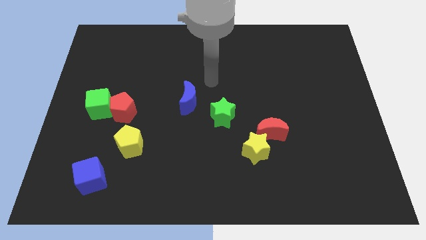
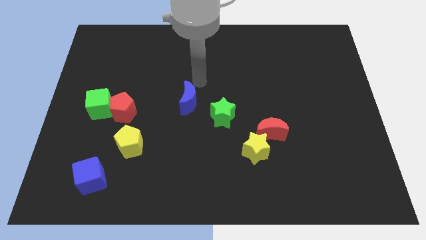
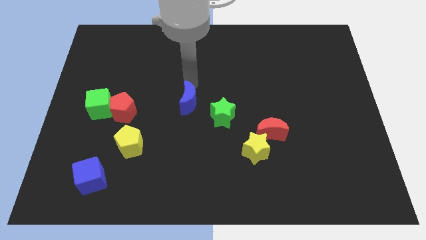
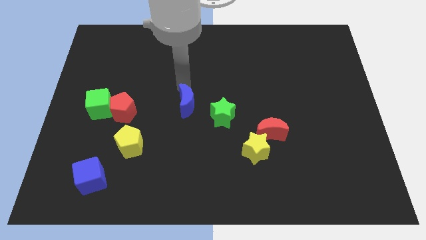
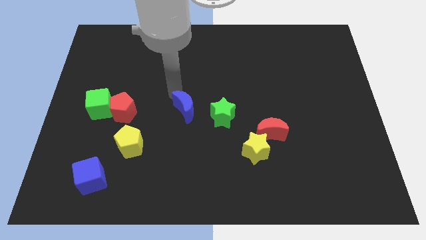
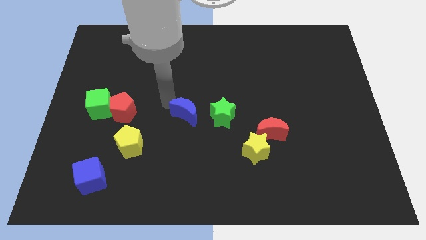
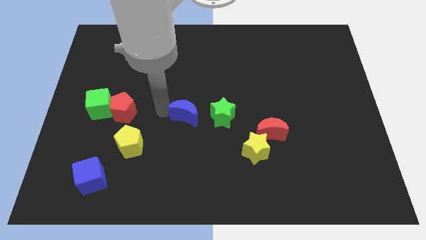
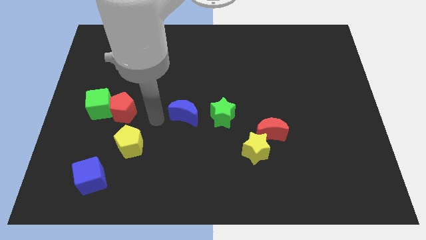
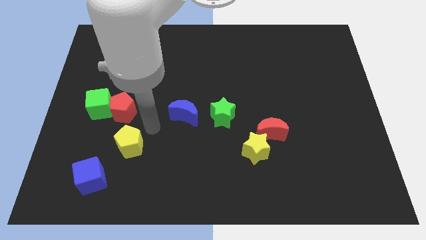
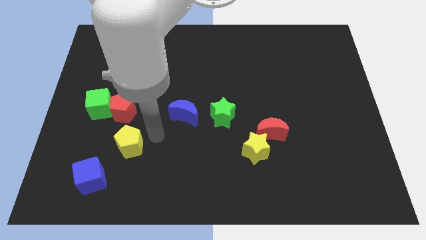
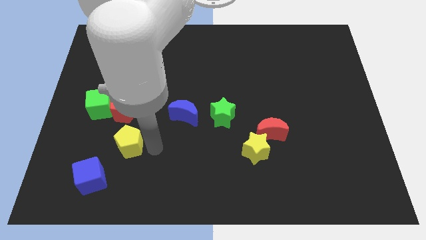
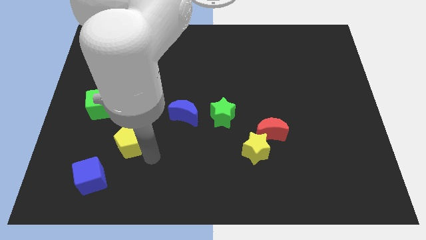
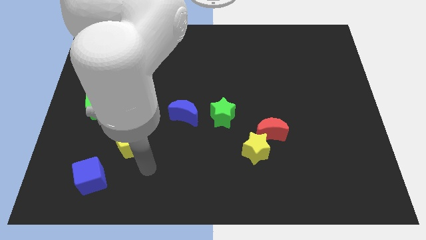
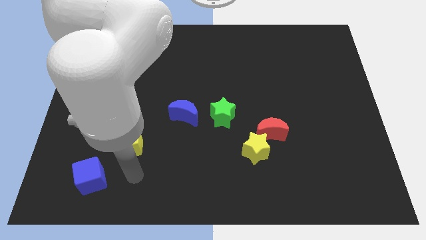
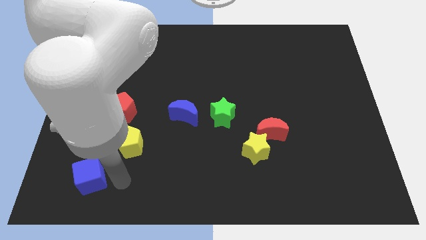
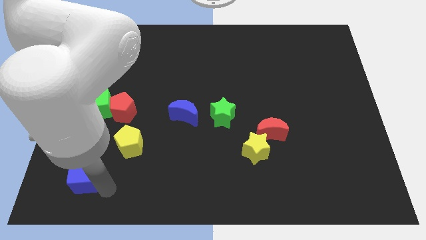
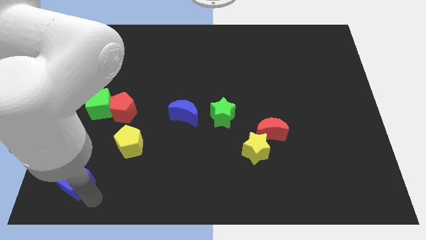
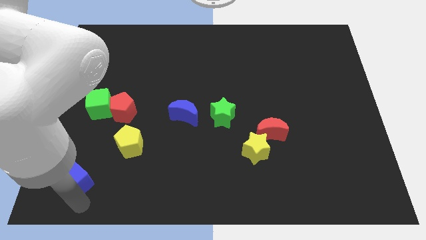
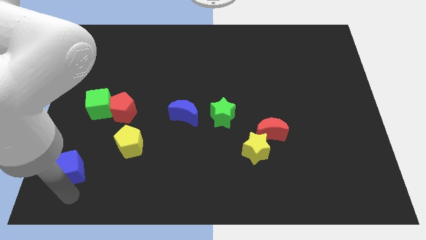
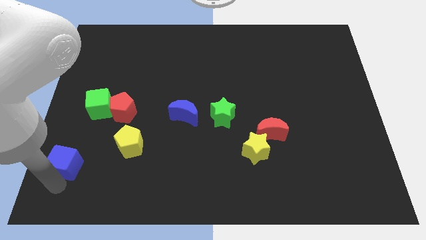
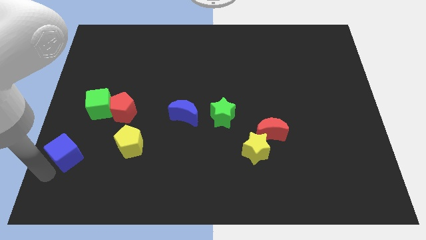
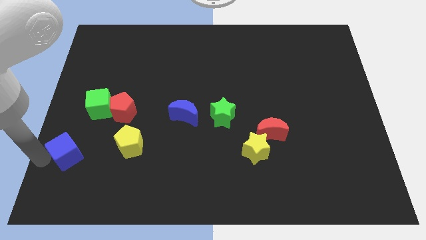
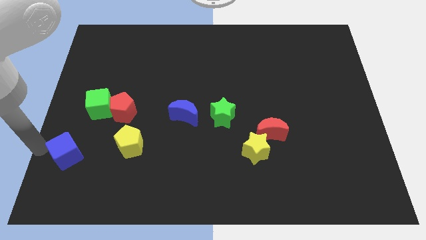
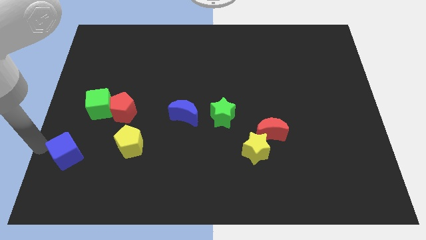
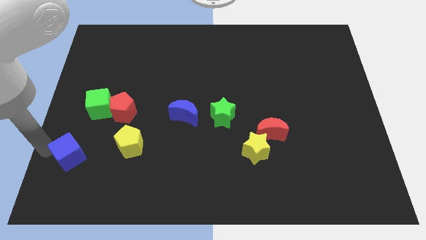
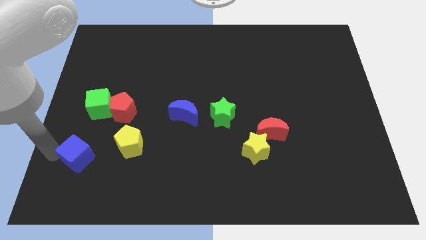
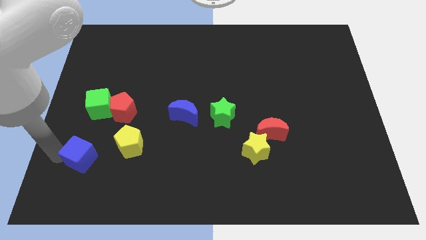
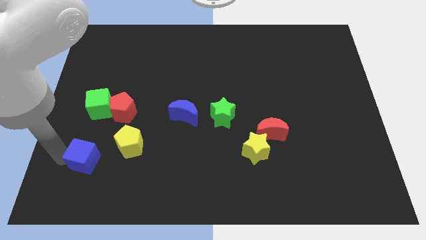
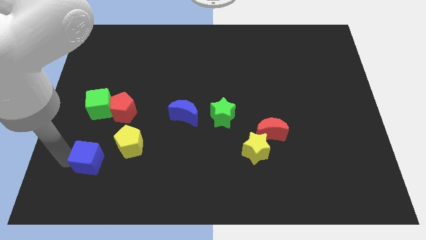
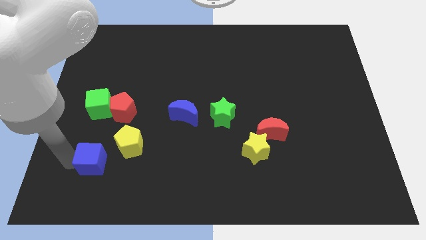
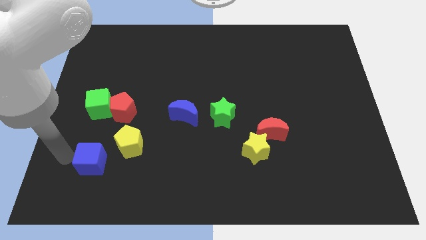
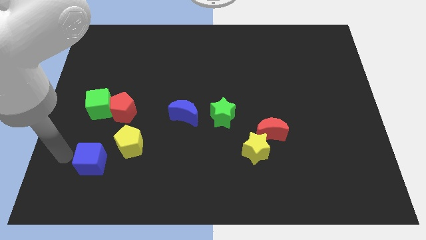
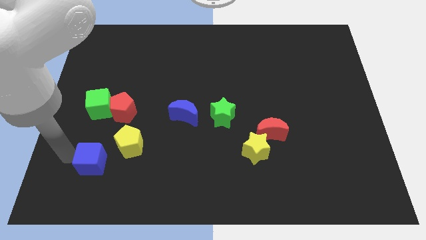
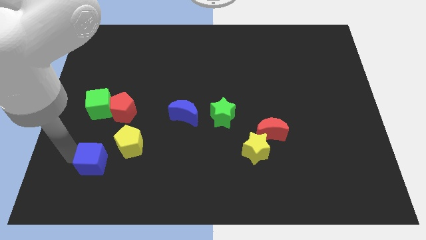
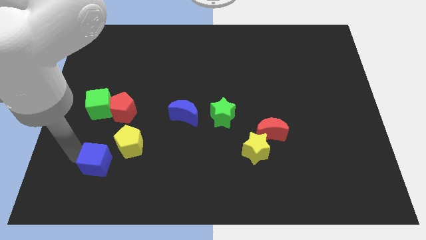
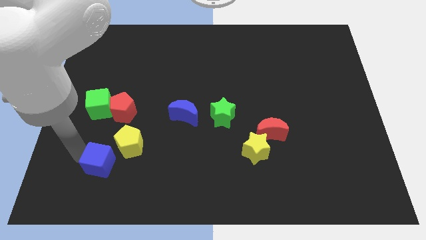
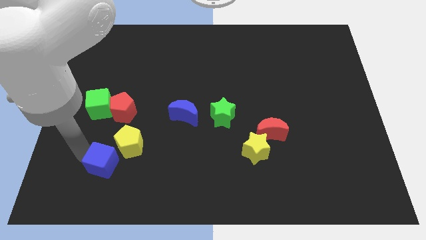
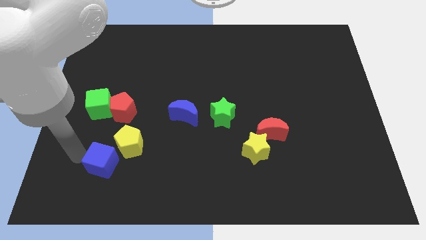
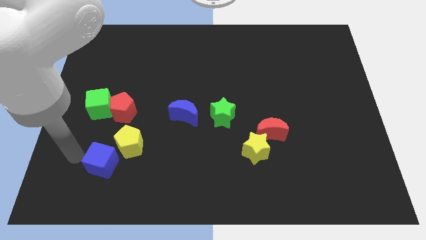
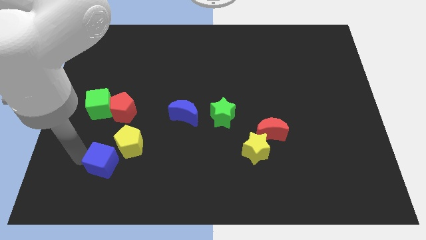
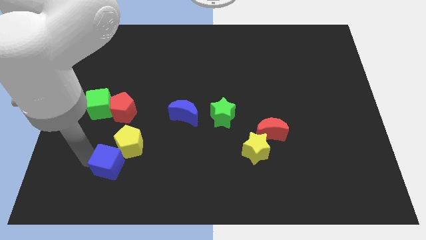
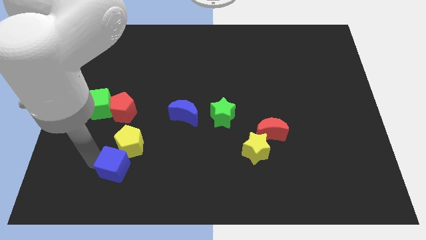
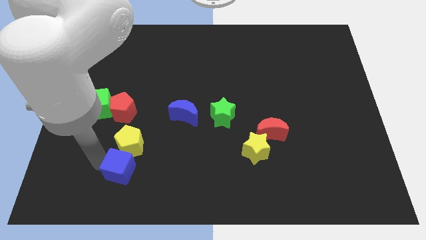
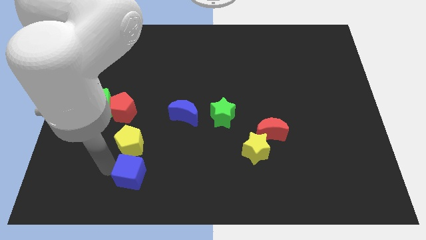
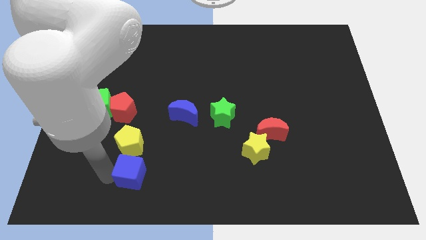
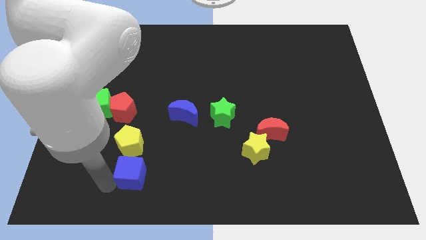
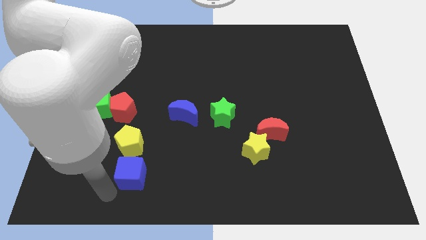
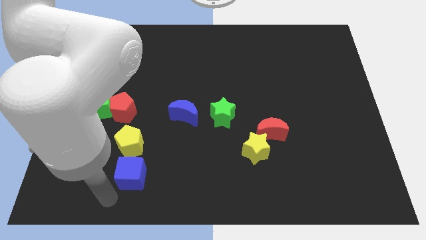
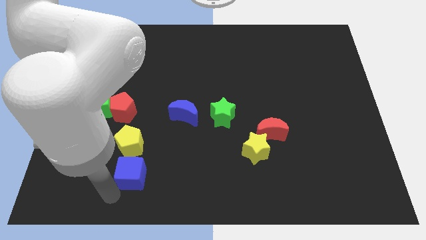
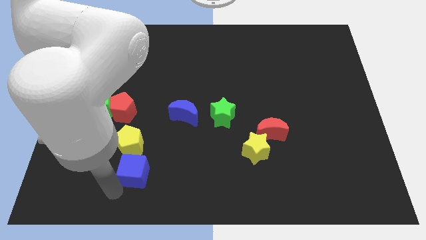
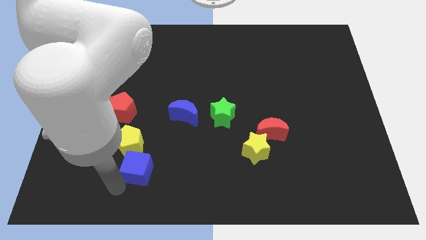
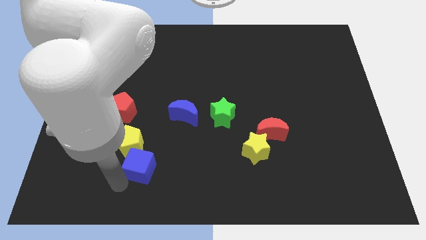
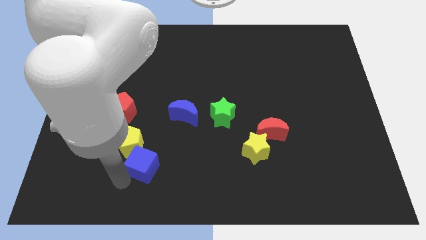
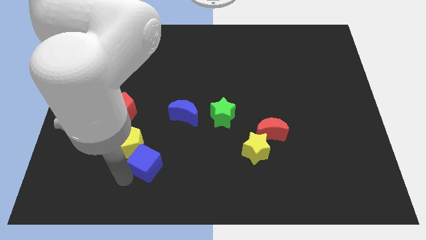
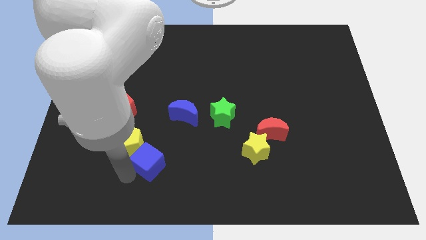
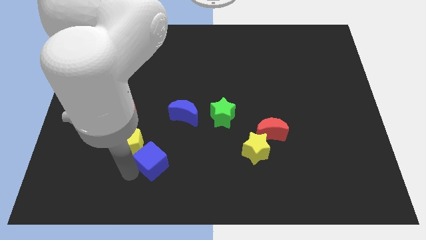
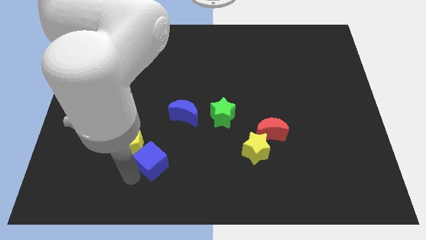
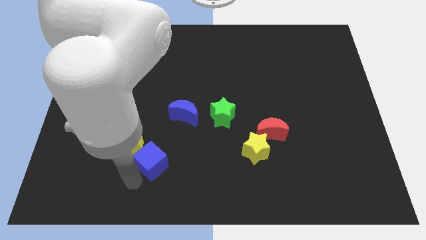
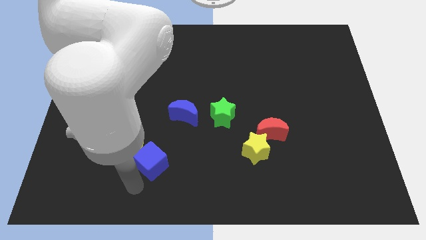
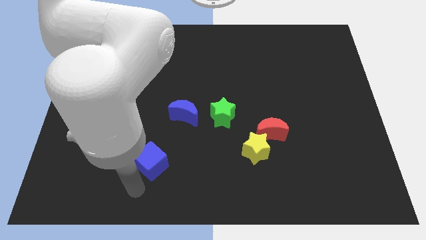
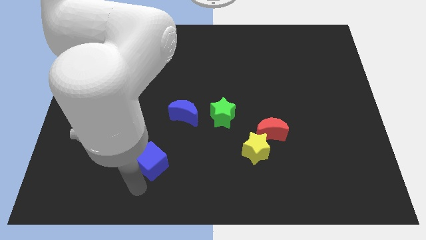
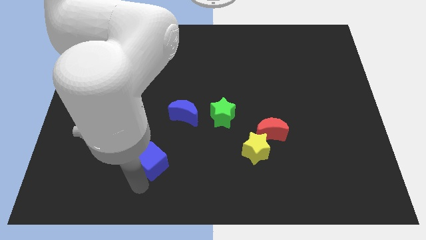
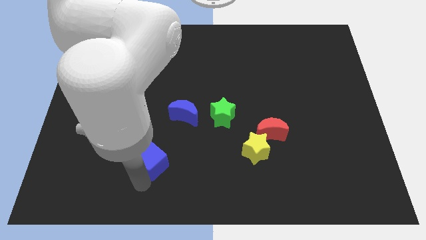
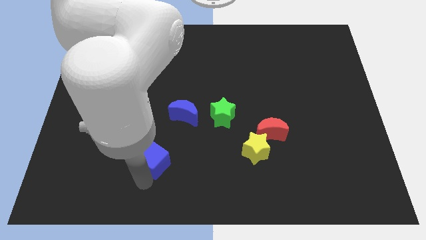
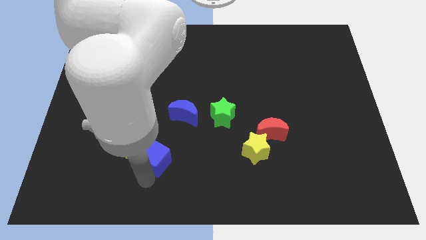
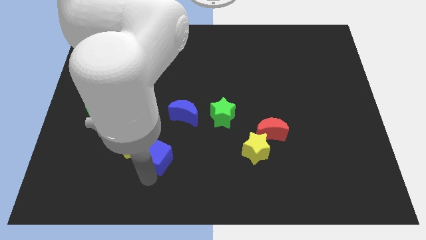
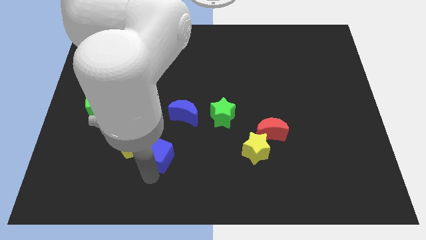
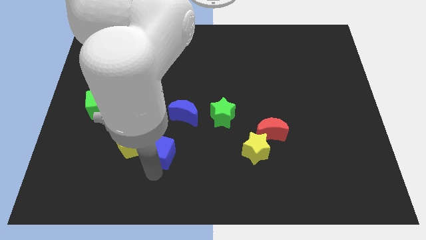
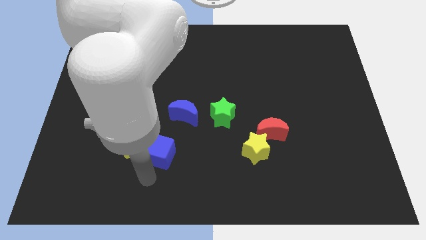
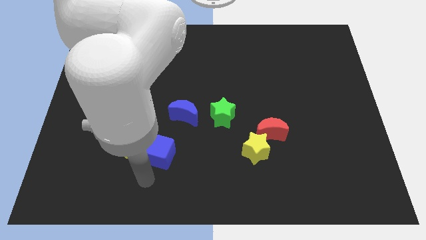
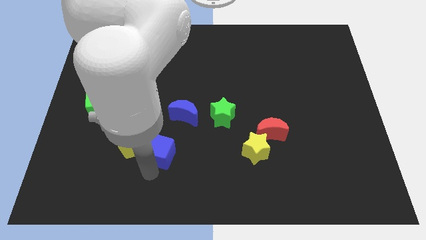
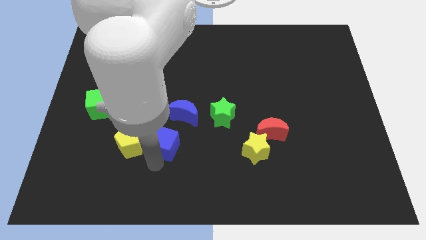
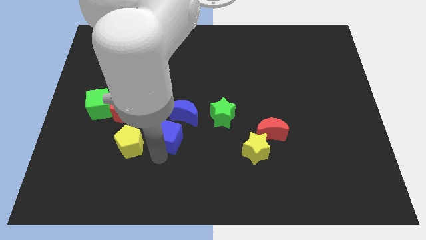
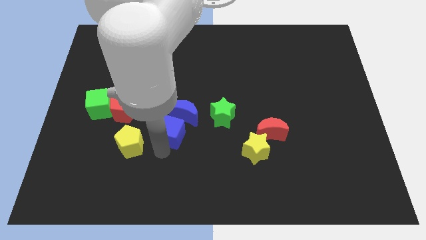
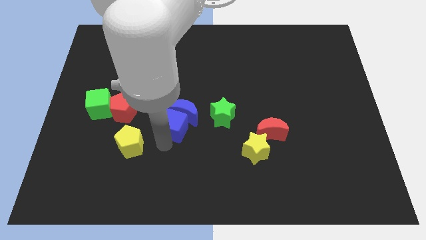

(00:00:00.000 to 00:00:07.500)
slide the blue cube upwards and right diagonally

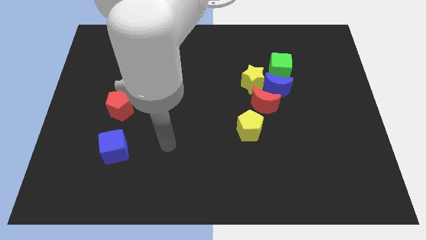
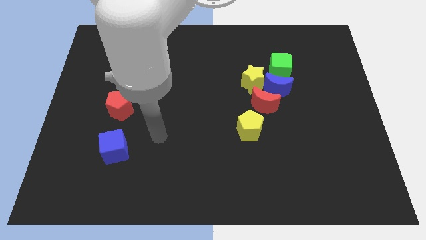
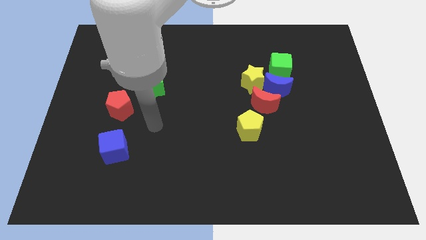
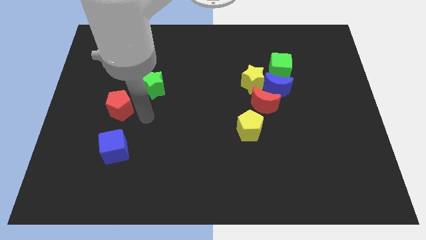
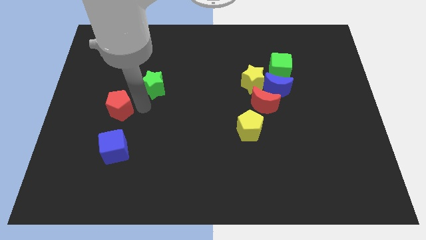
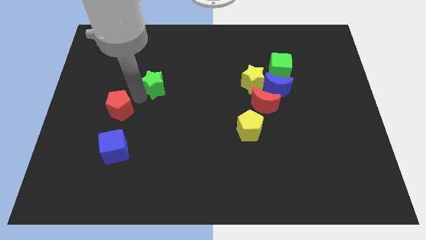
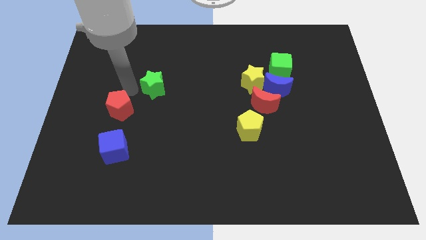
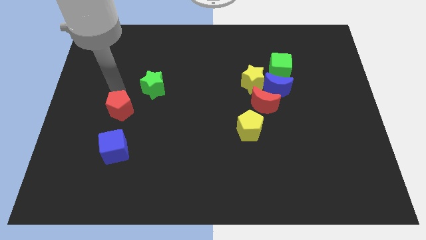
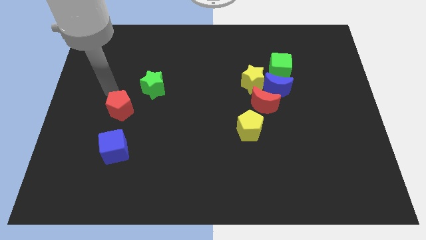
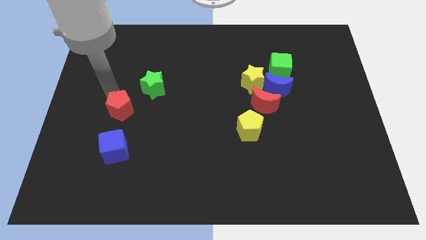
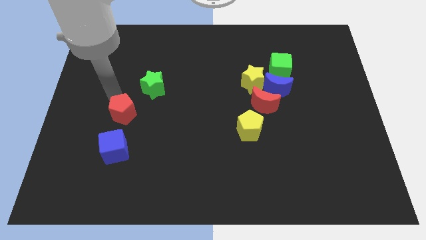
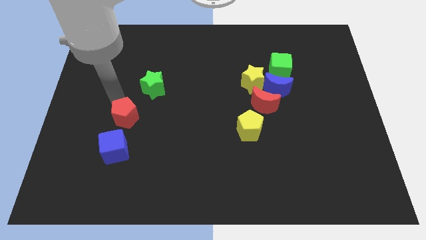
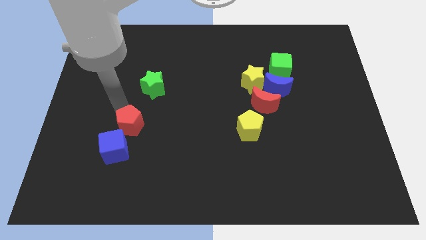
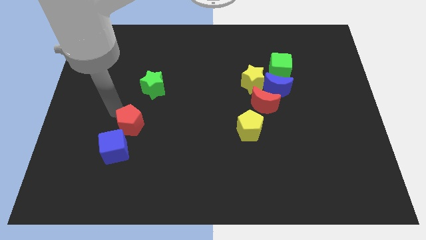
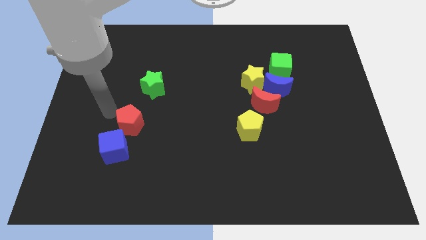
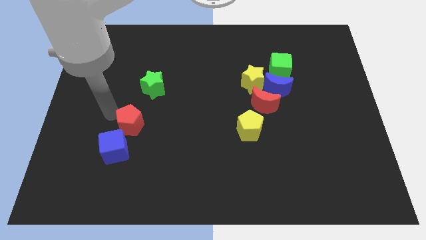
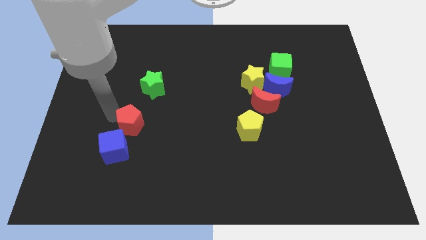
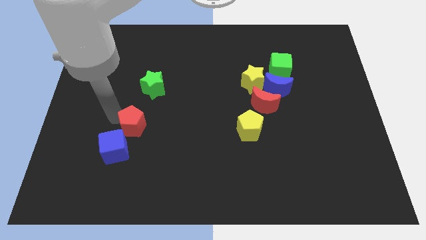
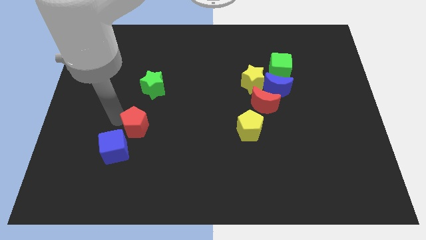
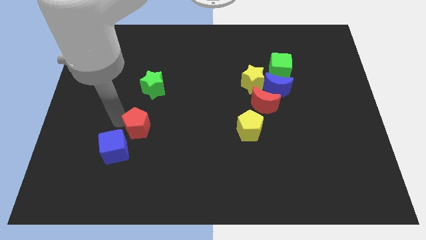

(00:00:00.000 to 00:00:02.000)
slide the red pentagon downwards and to the right diagonally a bit
